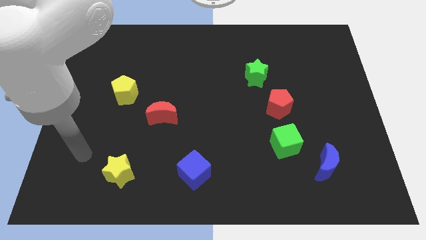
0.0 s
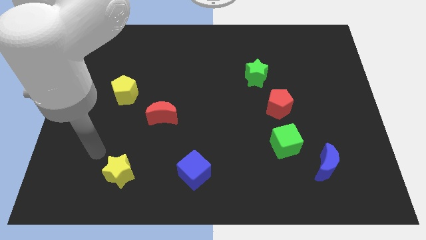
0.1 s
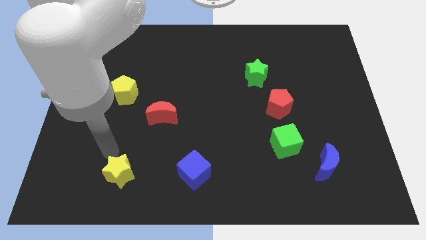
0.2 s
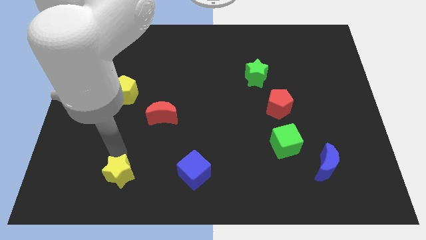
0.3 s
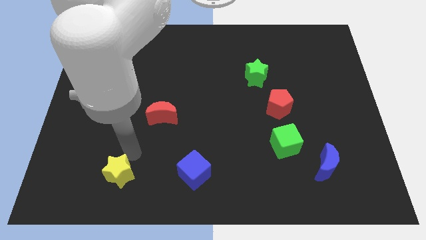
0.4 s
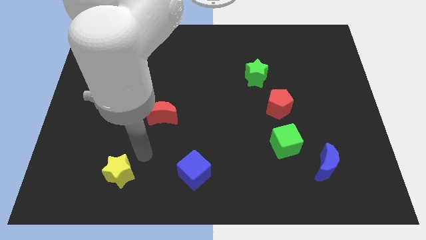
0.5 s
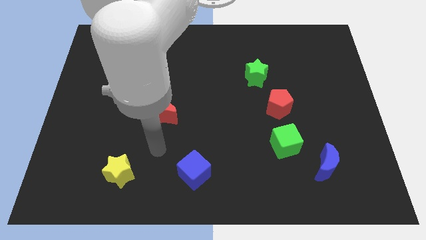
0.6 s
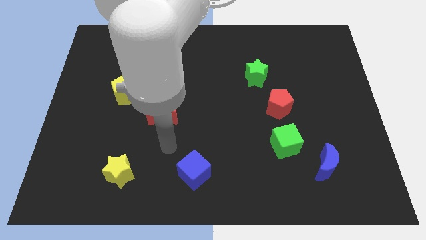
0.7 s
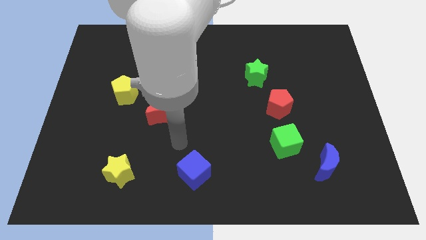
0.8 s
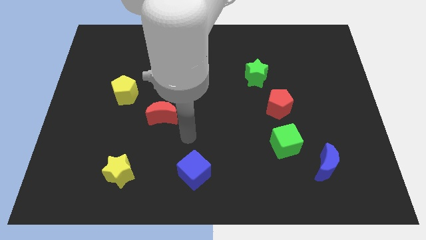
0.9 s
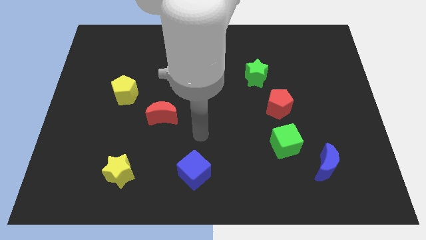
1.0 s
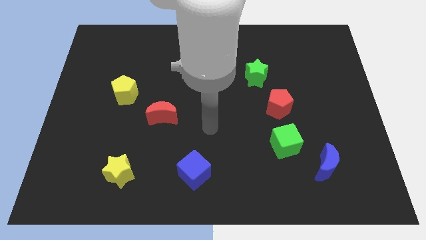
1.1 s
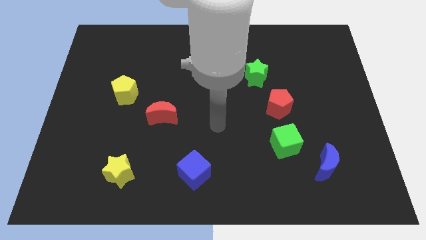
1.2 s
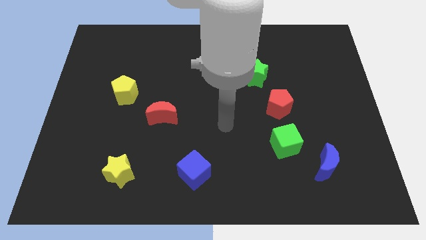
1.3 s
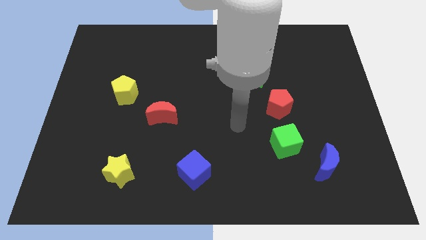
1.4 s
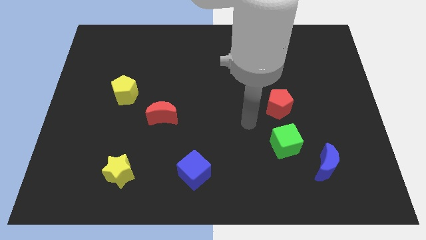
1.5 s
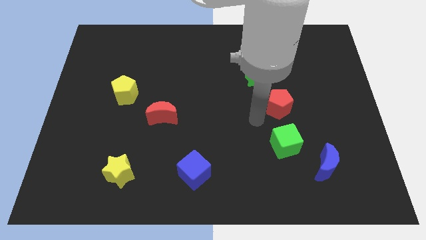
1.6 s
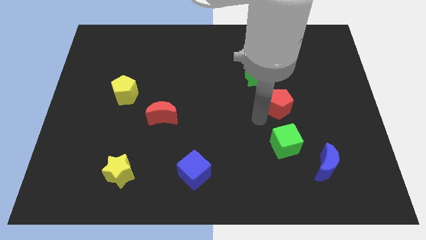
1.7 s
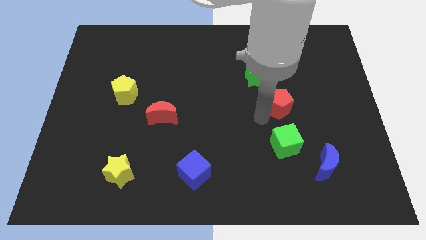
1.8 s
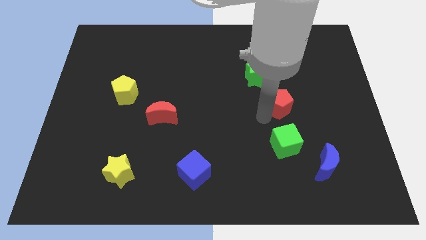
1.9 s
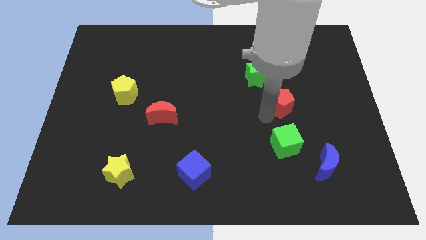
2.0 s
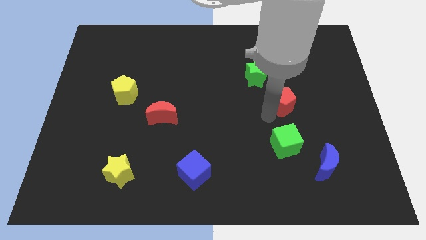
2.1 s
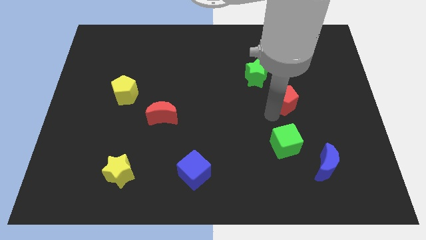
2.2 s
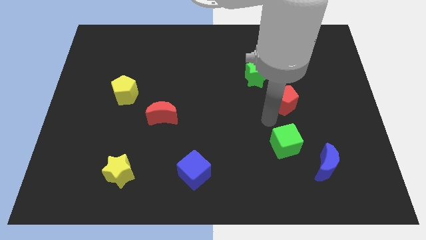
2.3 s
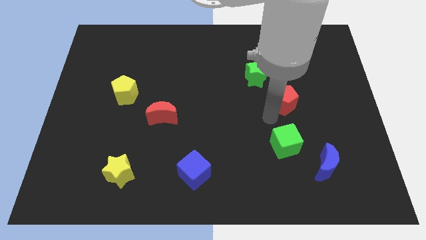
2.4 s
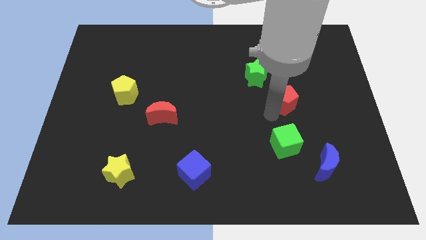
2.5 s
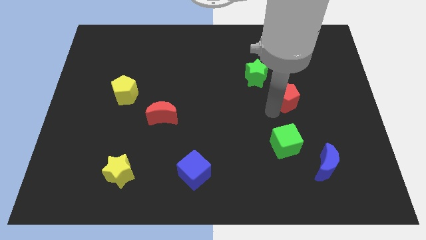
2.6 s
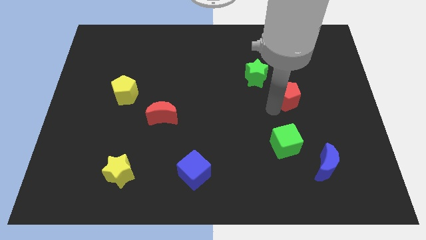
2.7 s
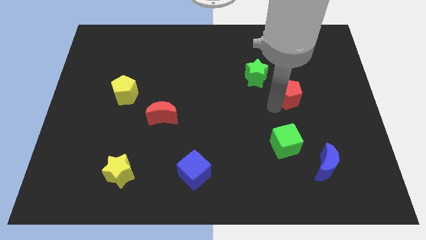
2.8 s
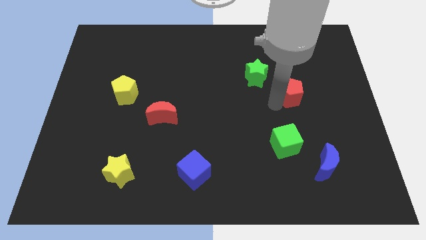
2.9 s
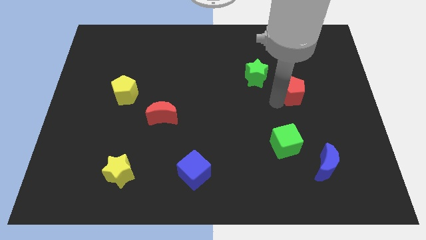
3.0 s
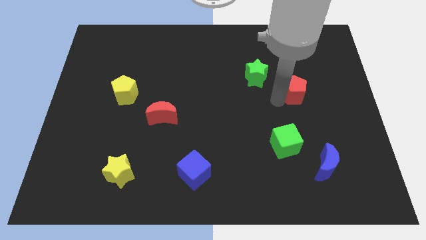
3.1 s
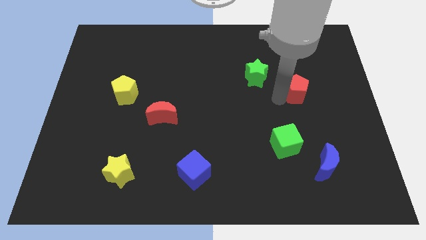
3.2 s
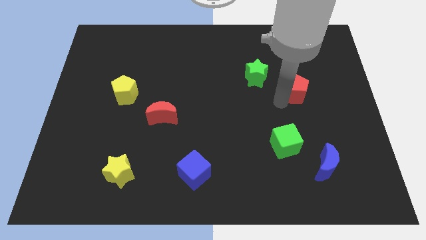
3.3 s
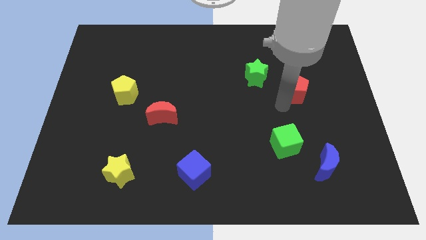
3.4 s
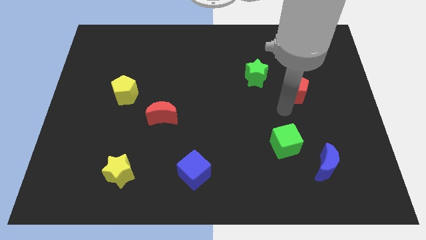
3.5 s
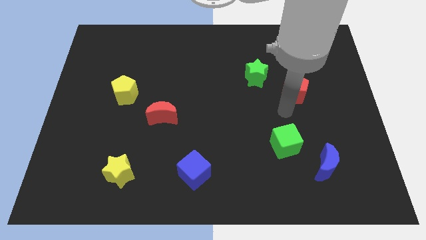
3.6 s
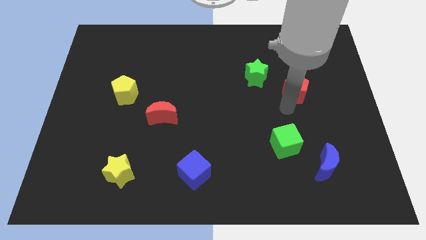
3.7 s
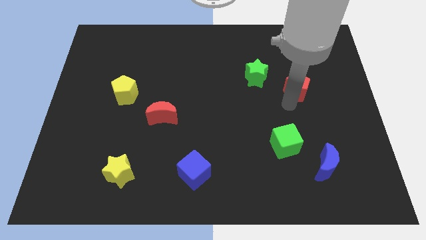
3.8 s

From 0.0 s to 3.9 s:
slightly push the red pentagon diagonally upwards and to the right

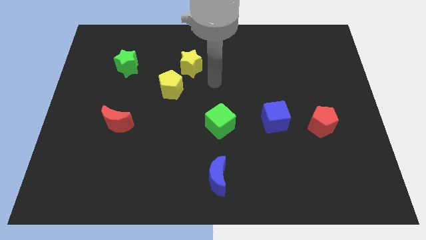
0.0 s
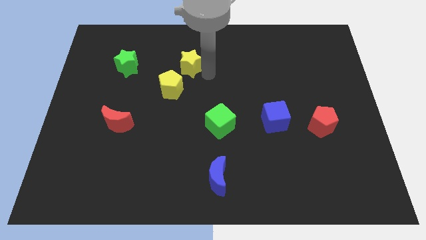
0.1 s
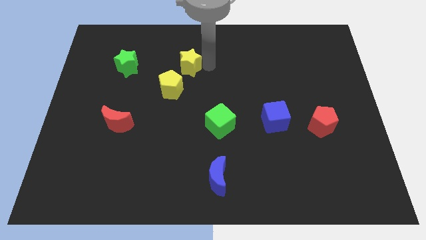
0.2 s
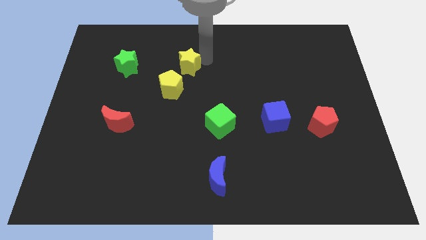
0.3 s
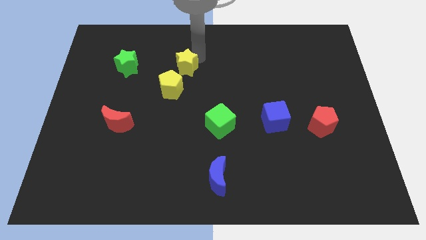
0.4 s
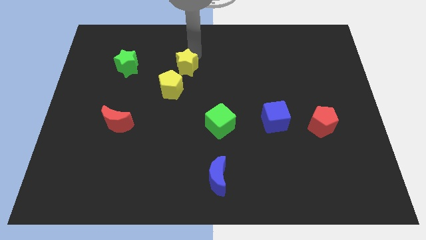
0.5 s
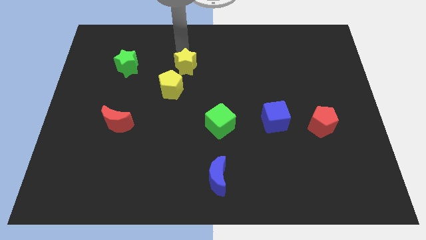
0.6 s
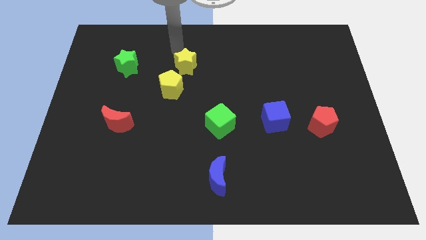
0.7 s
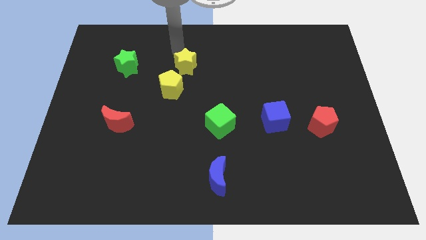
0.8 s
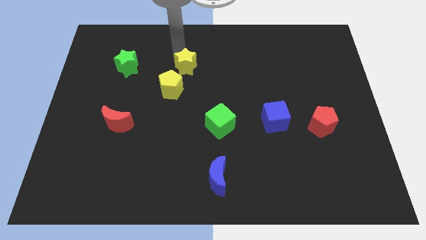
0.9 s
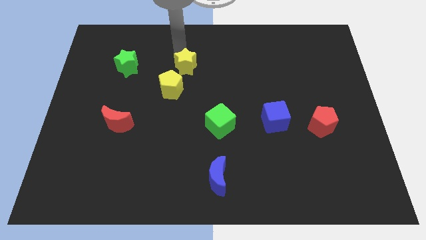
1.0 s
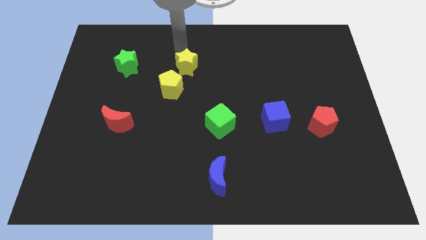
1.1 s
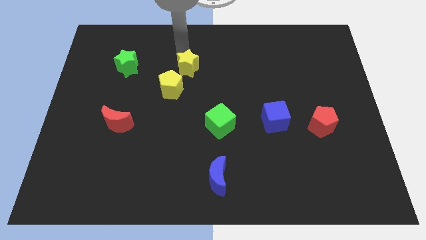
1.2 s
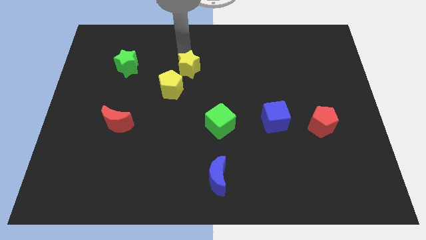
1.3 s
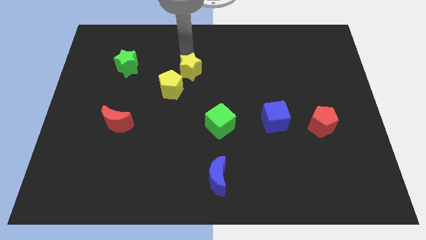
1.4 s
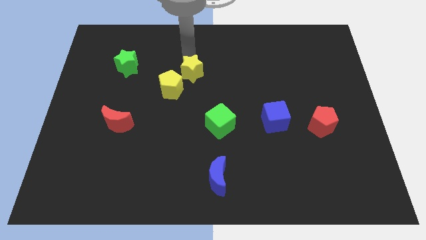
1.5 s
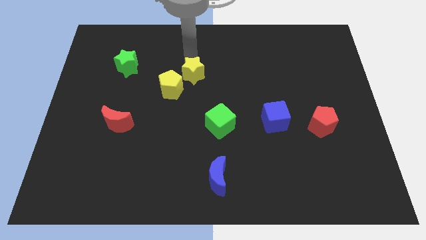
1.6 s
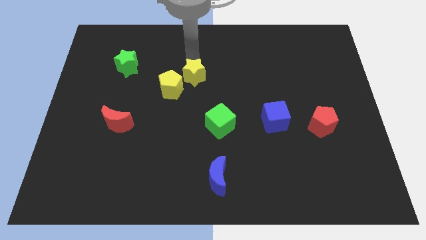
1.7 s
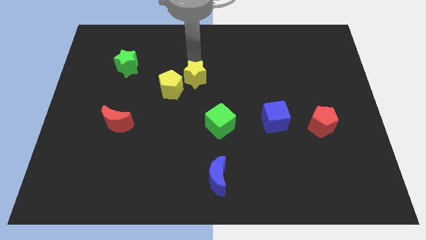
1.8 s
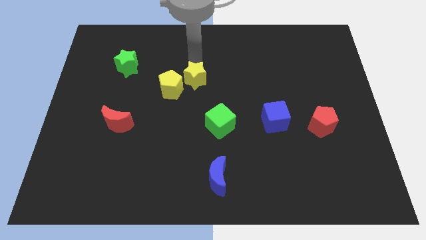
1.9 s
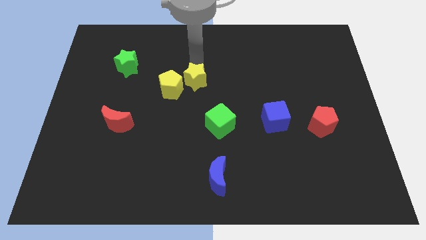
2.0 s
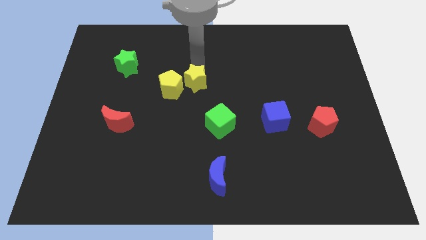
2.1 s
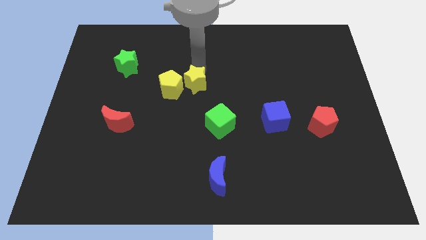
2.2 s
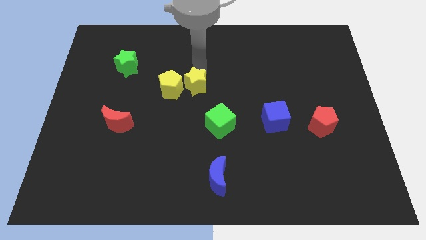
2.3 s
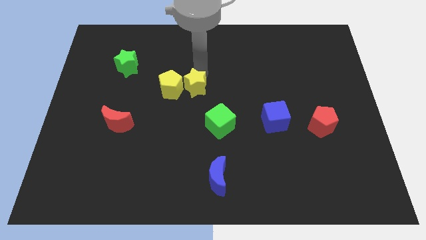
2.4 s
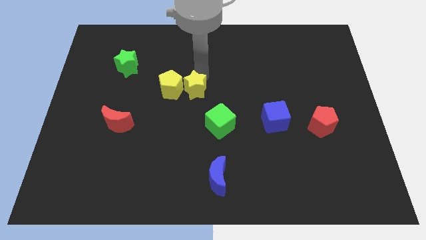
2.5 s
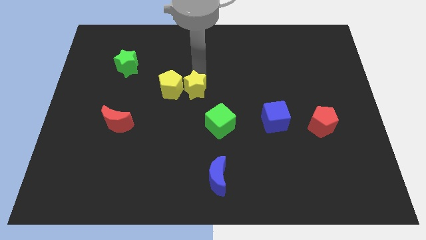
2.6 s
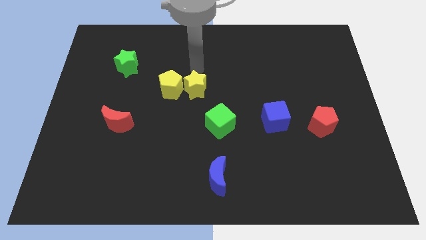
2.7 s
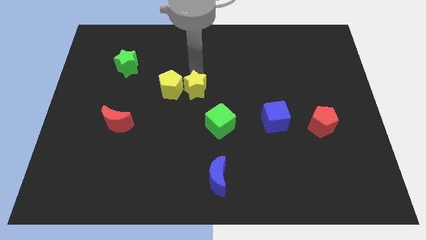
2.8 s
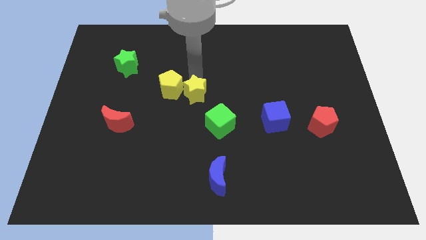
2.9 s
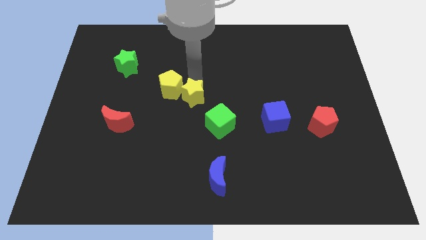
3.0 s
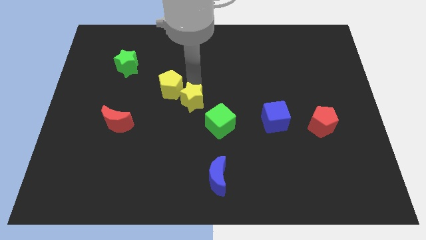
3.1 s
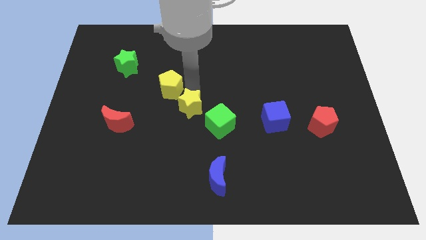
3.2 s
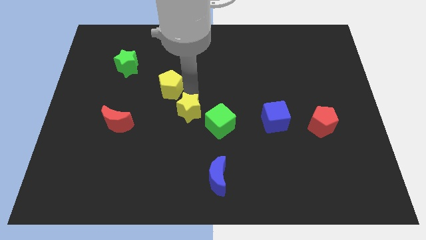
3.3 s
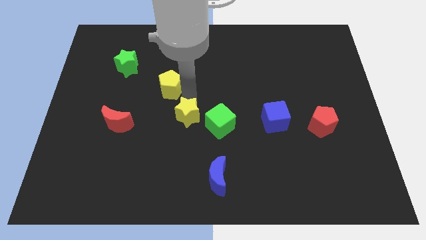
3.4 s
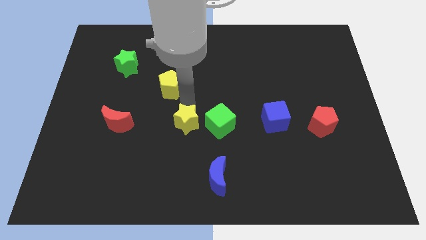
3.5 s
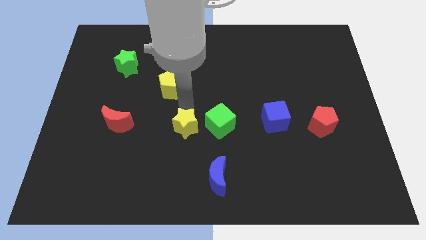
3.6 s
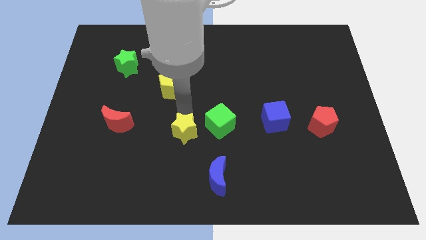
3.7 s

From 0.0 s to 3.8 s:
push the yellow star down
